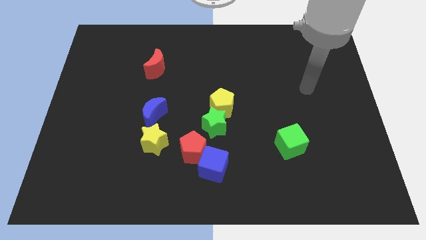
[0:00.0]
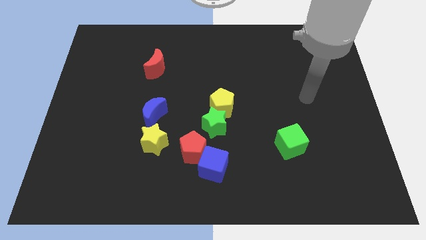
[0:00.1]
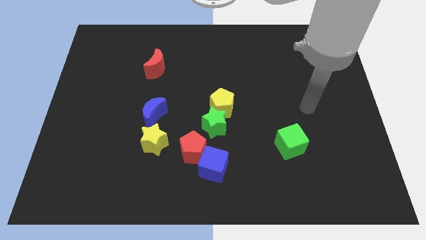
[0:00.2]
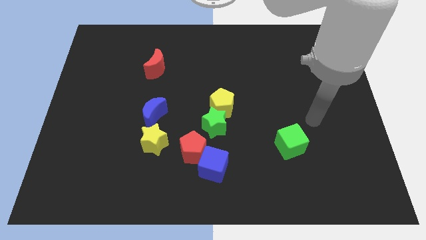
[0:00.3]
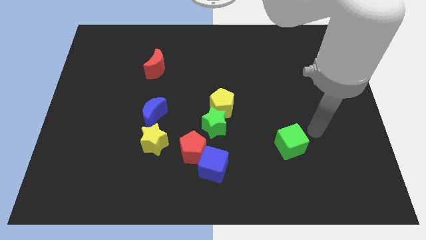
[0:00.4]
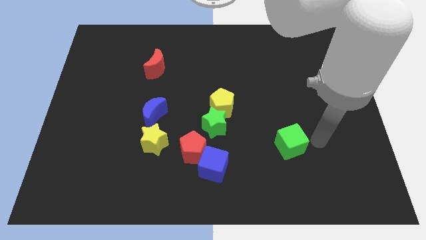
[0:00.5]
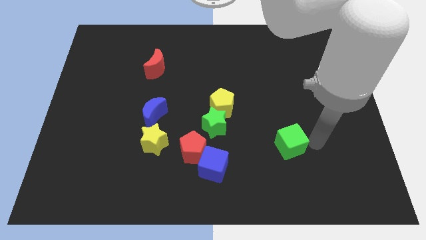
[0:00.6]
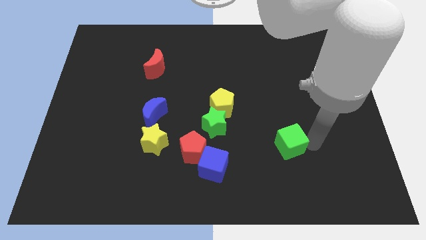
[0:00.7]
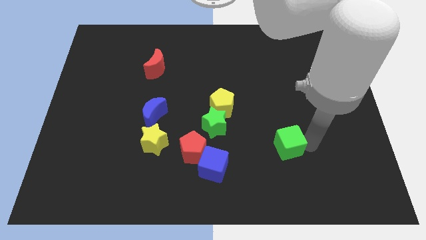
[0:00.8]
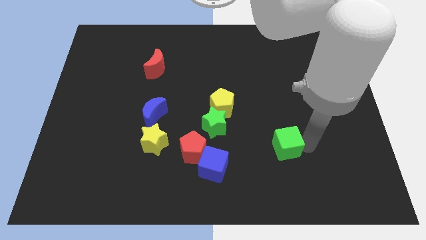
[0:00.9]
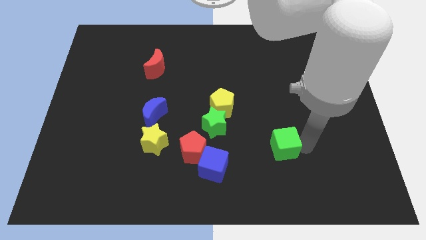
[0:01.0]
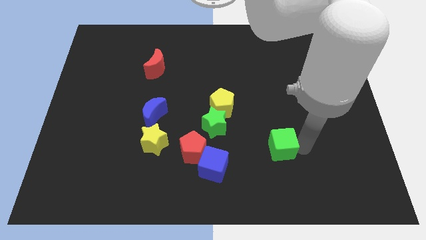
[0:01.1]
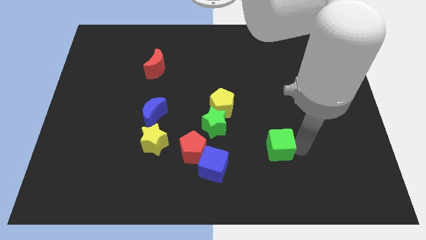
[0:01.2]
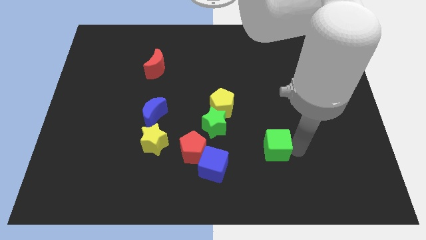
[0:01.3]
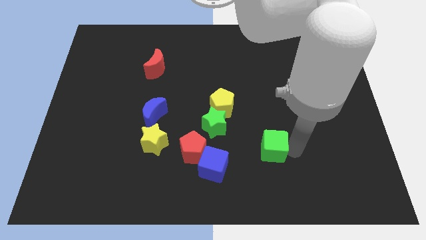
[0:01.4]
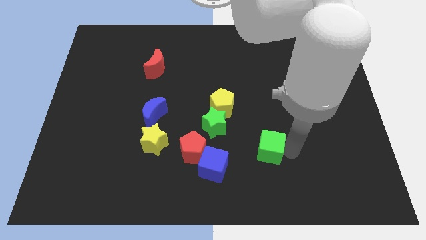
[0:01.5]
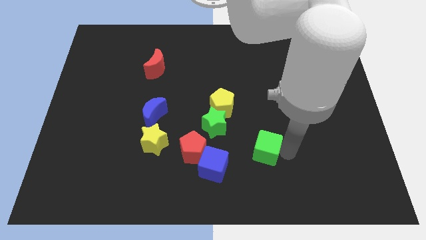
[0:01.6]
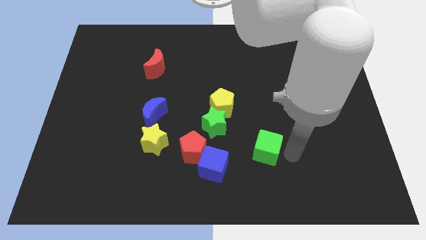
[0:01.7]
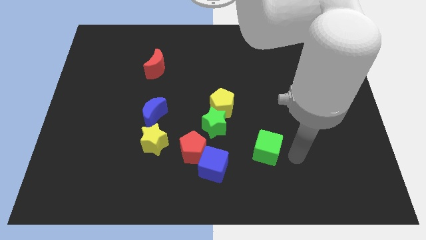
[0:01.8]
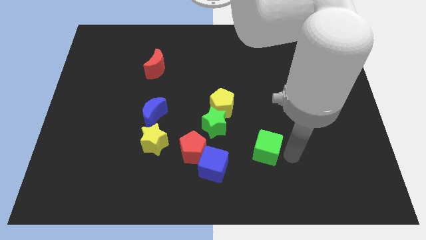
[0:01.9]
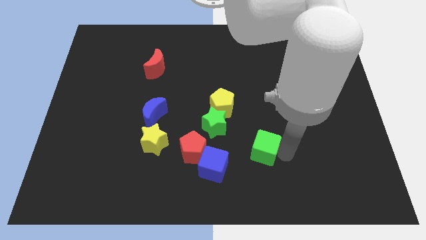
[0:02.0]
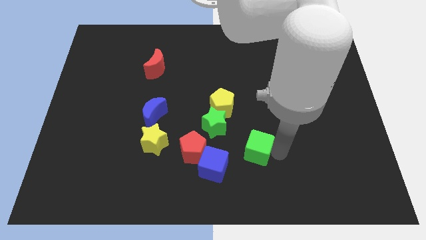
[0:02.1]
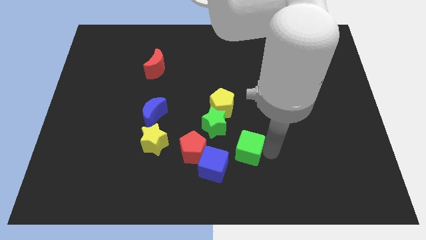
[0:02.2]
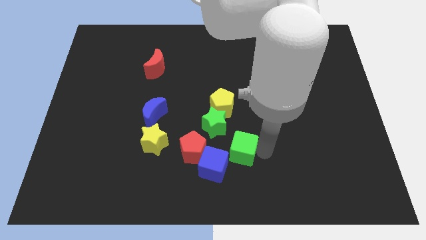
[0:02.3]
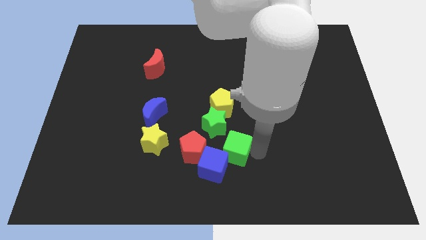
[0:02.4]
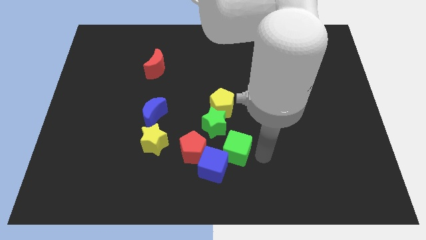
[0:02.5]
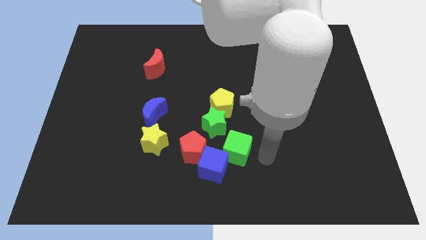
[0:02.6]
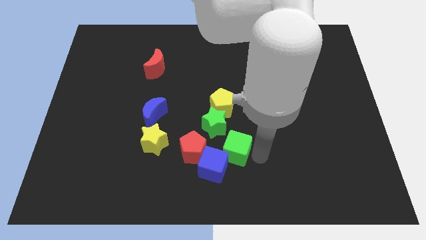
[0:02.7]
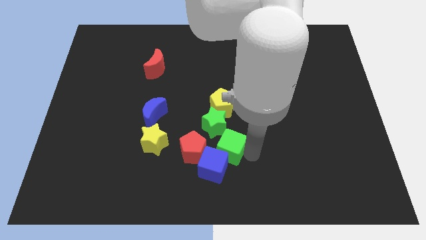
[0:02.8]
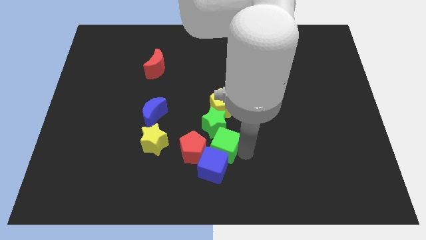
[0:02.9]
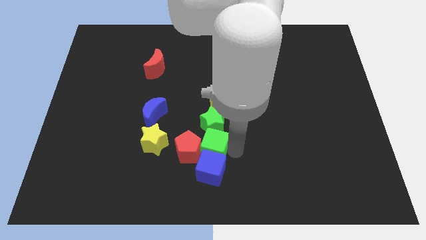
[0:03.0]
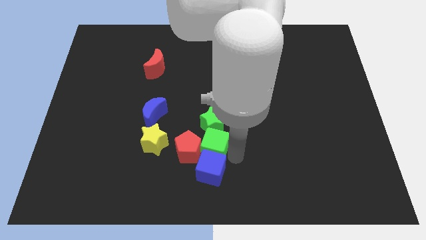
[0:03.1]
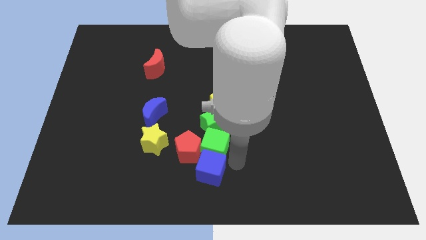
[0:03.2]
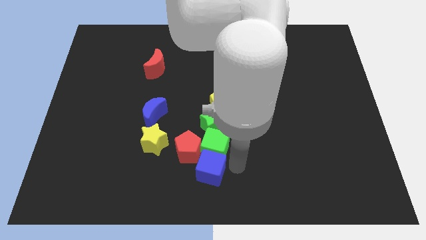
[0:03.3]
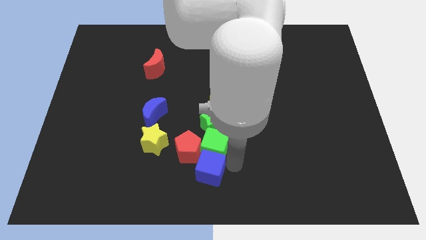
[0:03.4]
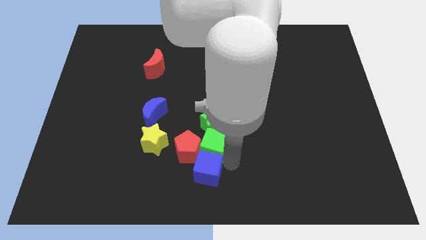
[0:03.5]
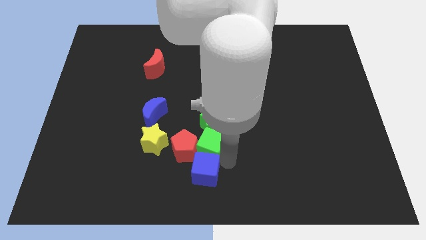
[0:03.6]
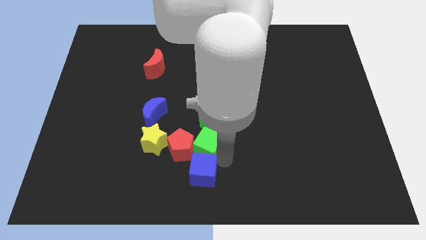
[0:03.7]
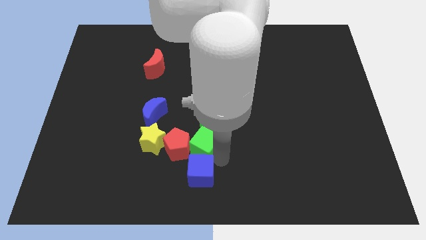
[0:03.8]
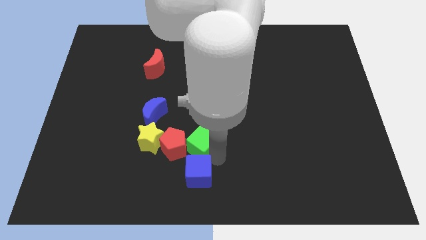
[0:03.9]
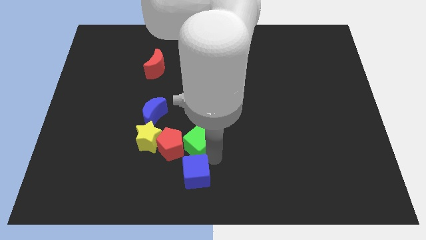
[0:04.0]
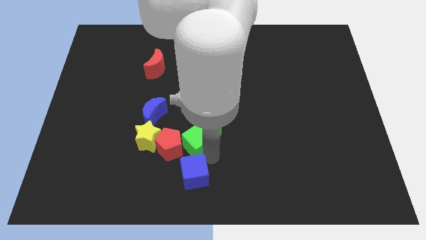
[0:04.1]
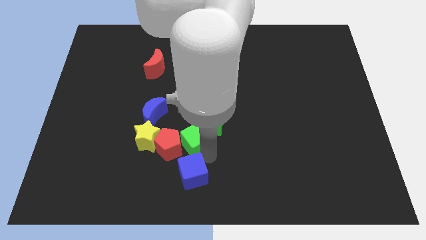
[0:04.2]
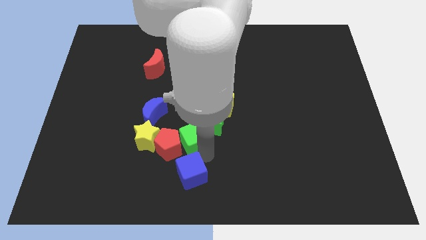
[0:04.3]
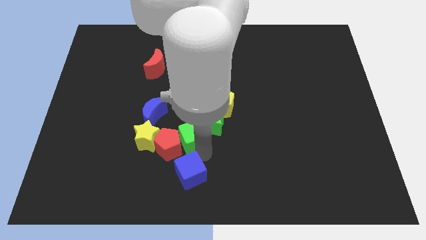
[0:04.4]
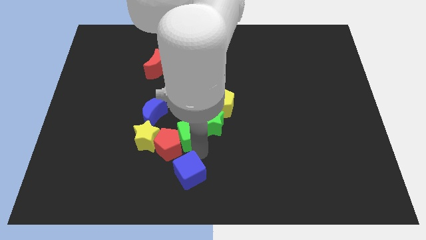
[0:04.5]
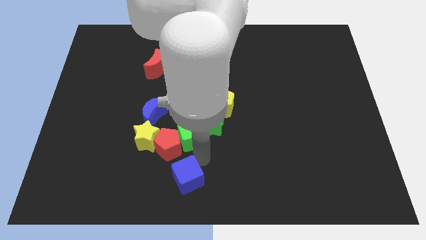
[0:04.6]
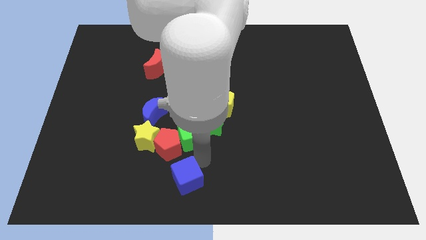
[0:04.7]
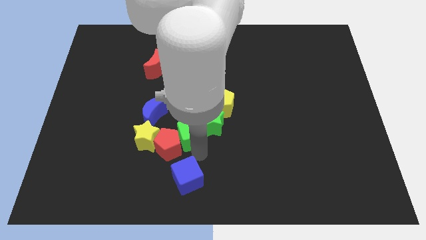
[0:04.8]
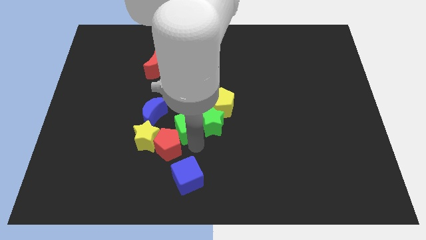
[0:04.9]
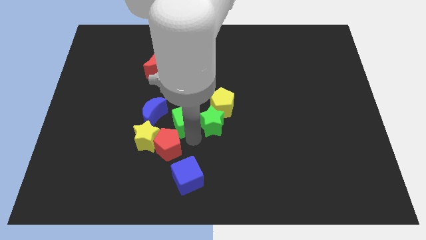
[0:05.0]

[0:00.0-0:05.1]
slide the green cube left of the yellow pentagon

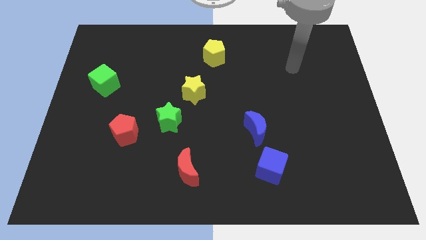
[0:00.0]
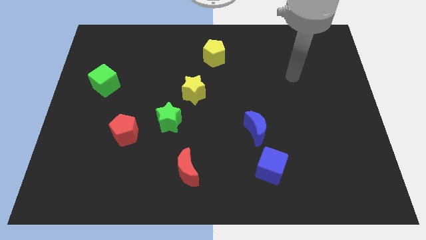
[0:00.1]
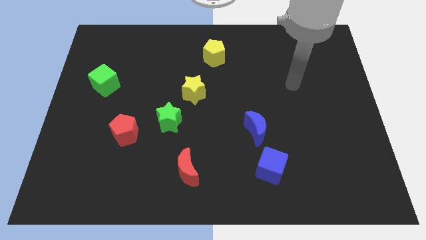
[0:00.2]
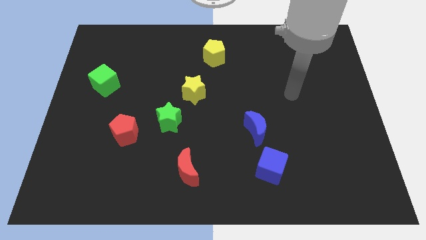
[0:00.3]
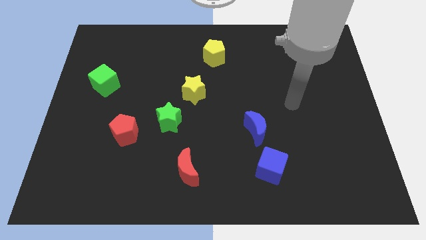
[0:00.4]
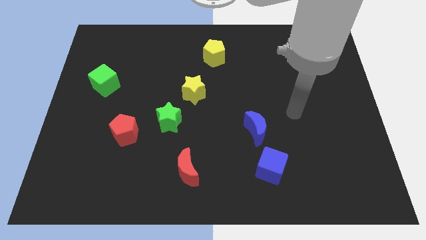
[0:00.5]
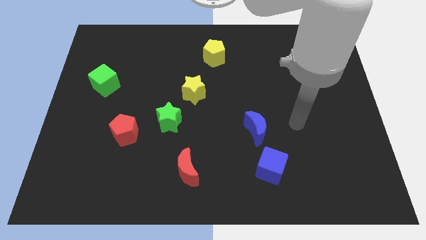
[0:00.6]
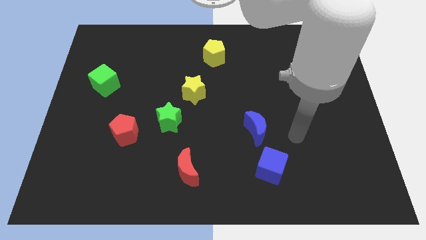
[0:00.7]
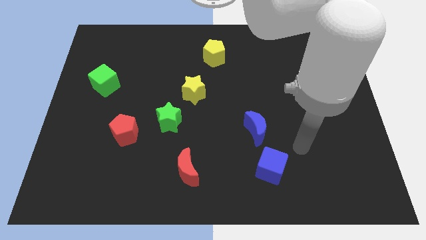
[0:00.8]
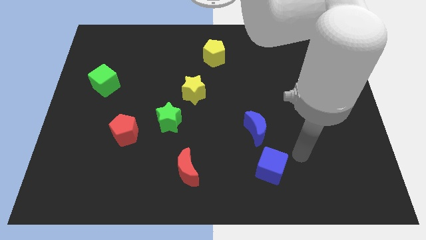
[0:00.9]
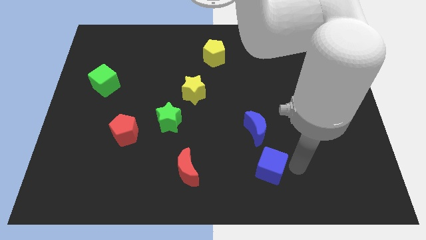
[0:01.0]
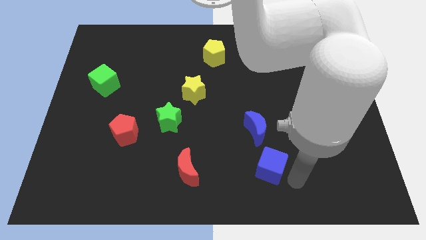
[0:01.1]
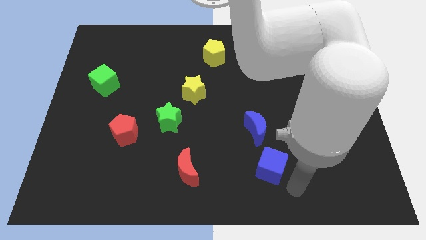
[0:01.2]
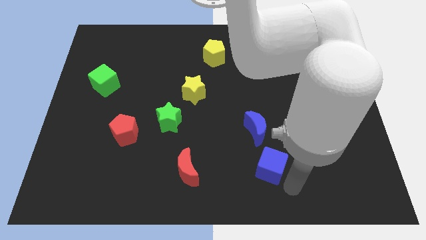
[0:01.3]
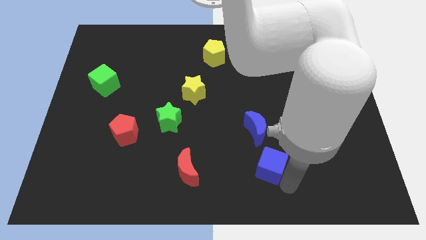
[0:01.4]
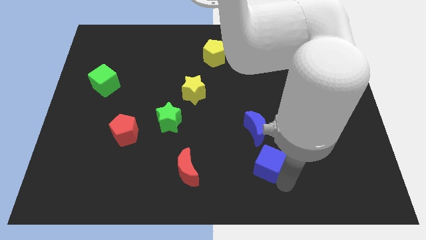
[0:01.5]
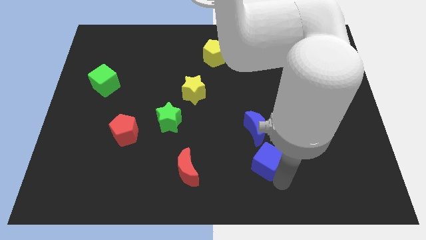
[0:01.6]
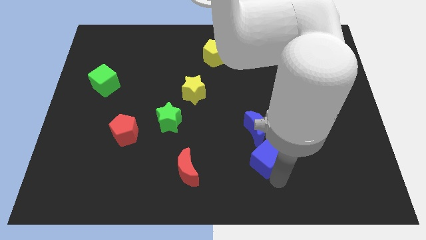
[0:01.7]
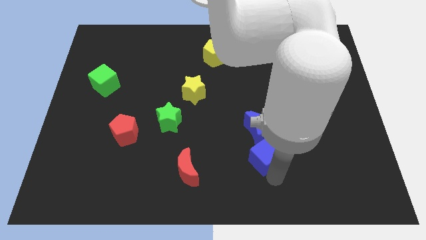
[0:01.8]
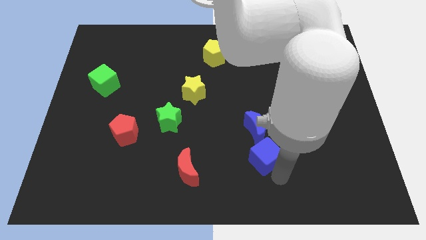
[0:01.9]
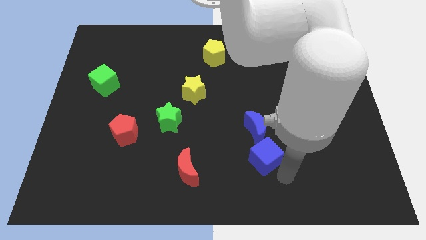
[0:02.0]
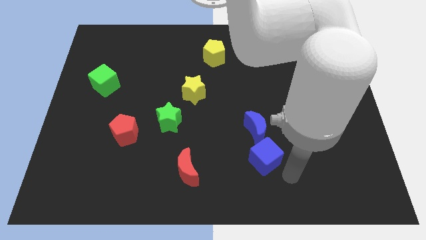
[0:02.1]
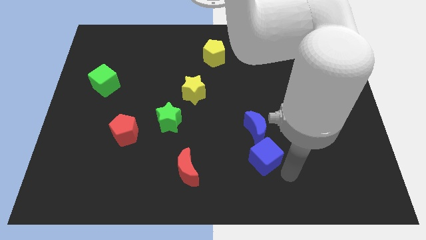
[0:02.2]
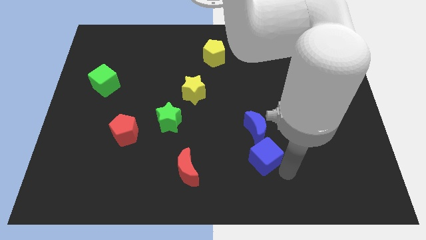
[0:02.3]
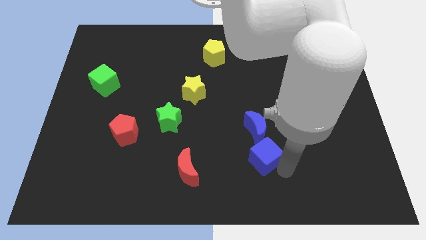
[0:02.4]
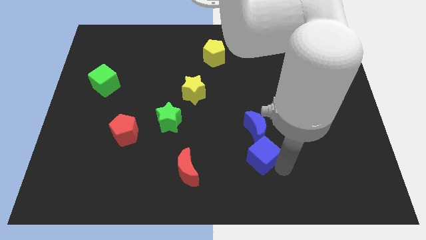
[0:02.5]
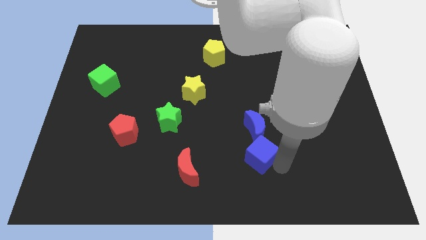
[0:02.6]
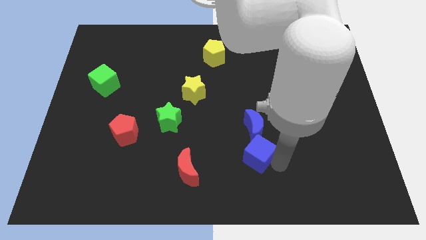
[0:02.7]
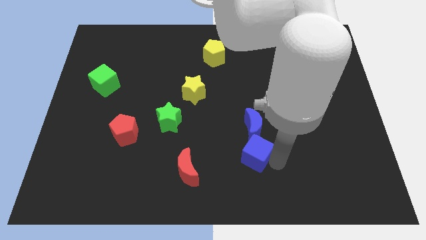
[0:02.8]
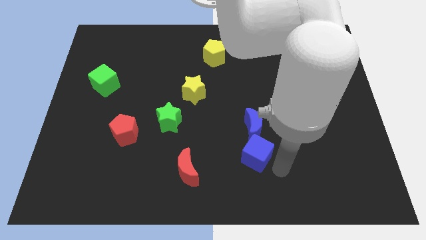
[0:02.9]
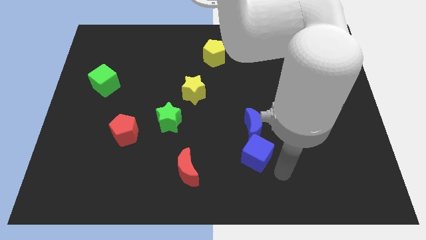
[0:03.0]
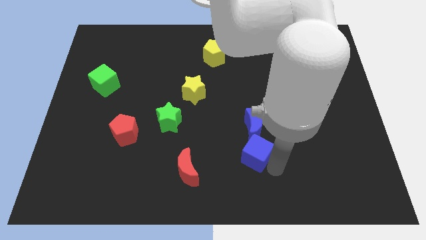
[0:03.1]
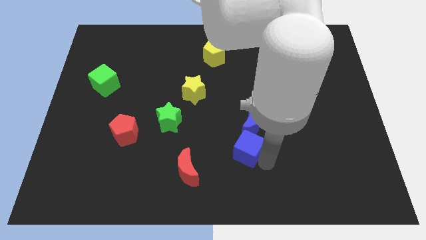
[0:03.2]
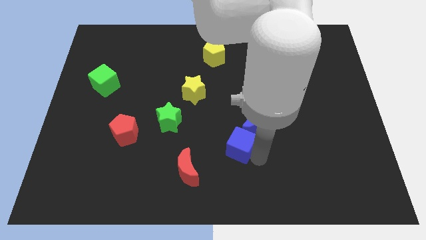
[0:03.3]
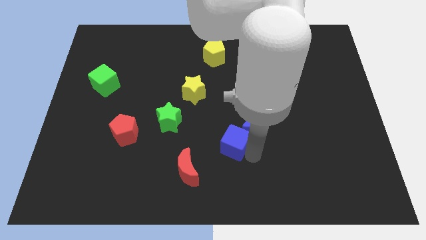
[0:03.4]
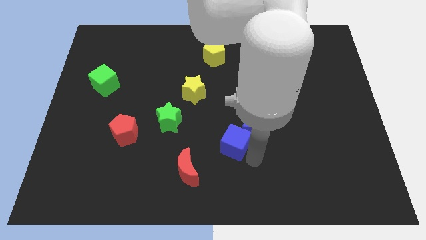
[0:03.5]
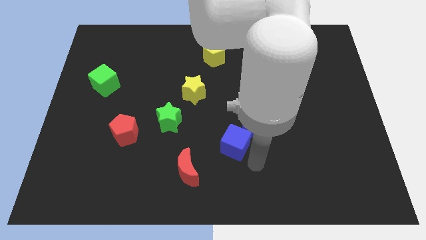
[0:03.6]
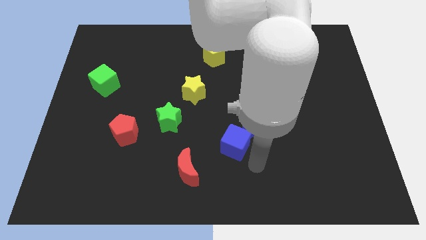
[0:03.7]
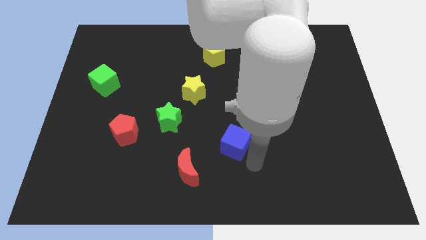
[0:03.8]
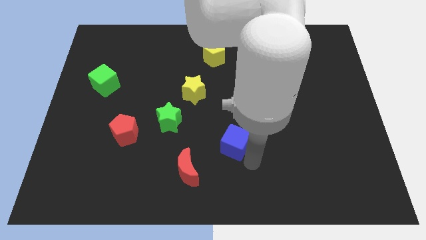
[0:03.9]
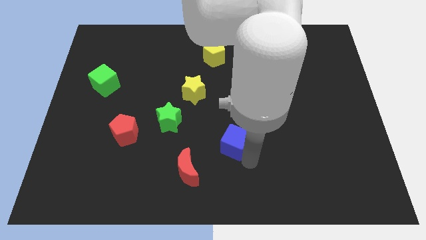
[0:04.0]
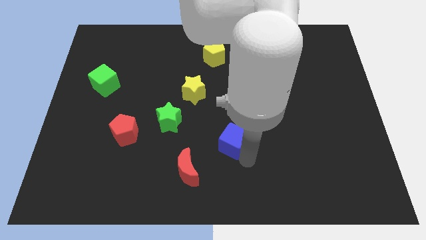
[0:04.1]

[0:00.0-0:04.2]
slide the blue cube to the left of the blue moon
